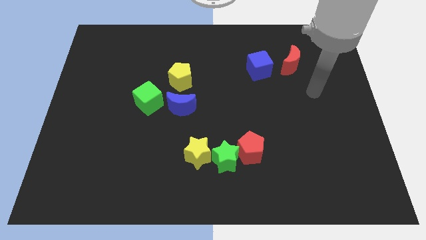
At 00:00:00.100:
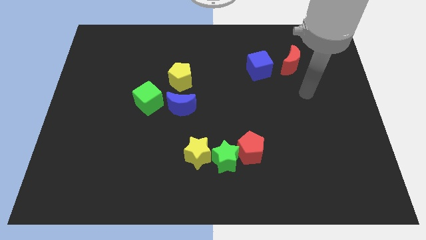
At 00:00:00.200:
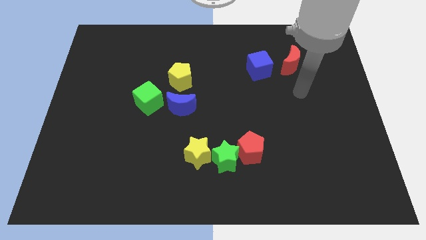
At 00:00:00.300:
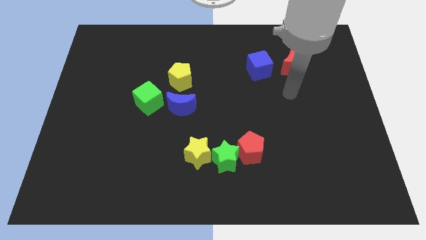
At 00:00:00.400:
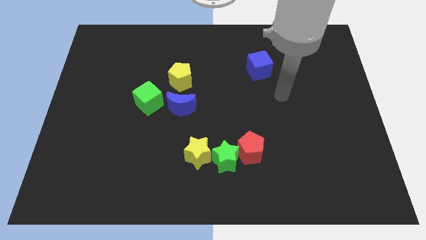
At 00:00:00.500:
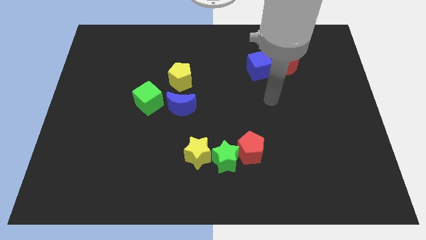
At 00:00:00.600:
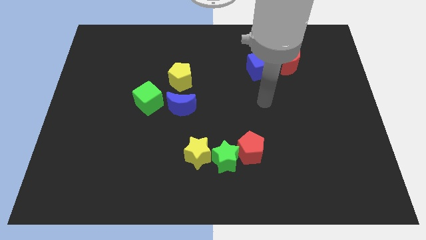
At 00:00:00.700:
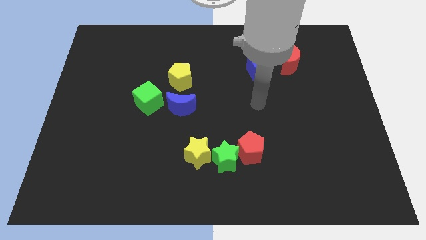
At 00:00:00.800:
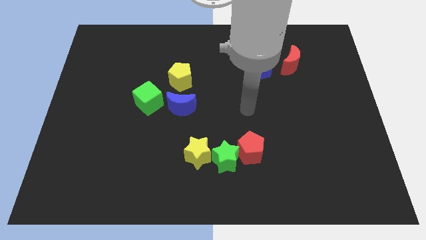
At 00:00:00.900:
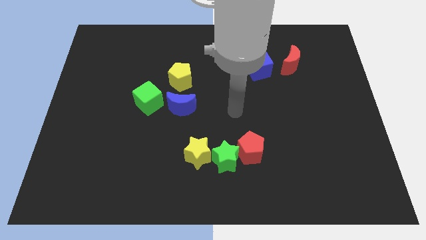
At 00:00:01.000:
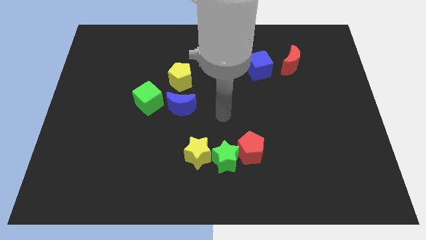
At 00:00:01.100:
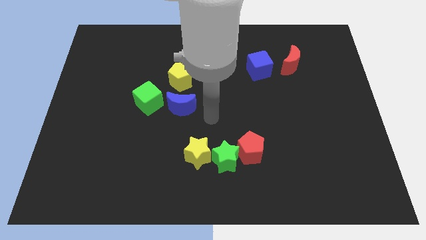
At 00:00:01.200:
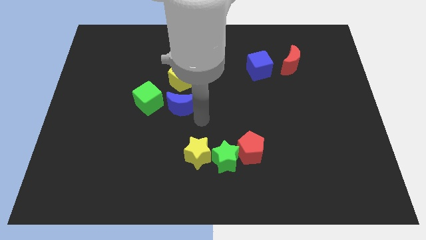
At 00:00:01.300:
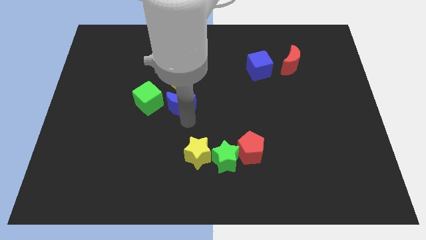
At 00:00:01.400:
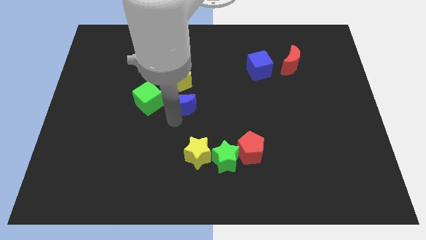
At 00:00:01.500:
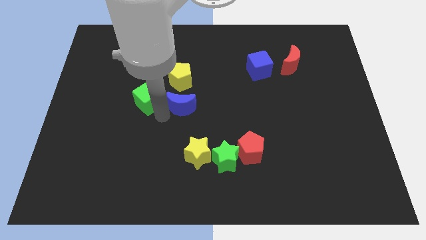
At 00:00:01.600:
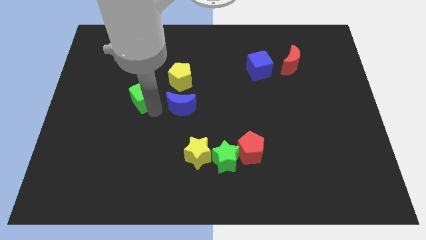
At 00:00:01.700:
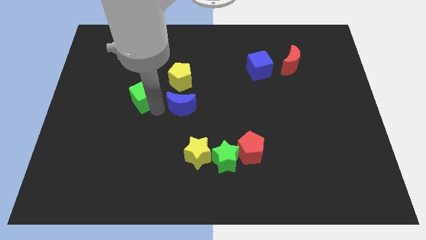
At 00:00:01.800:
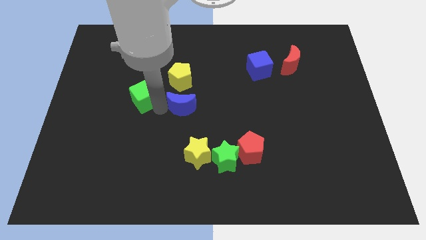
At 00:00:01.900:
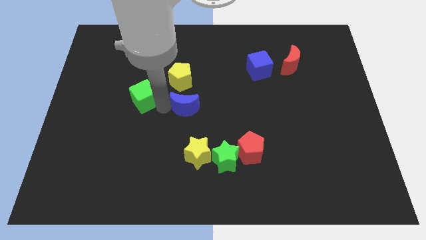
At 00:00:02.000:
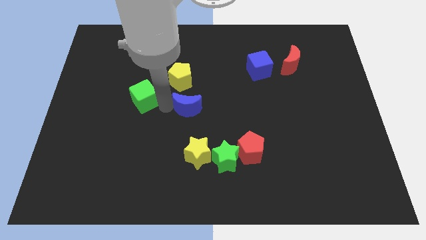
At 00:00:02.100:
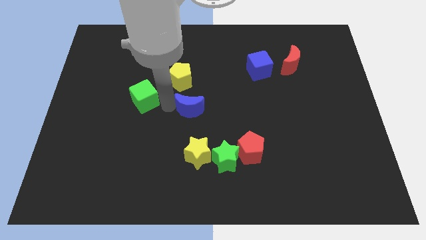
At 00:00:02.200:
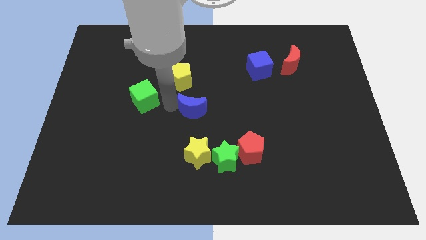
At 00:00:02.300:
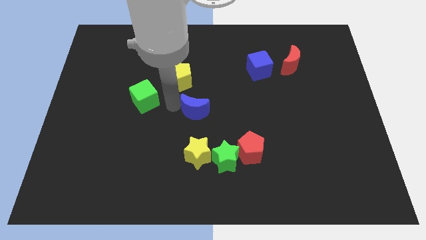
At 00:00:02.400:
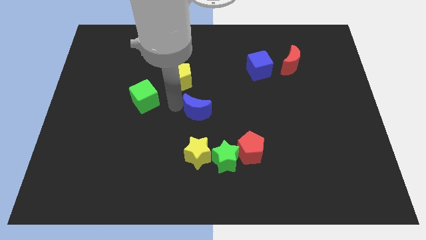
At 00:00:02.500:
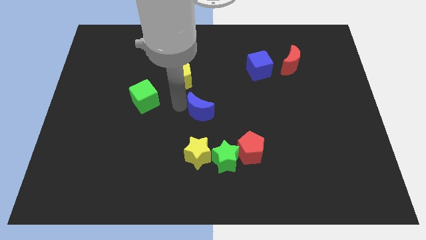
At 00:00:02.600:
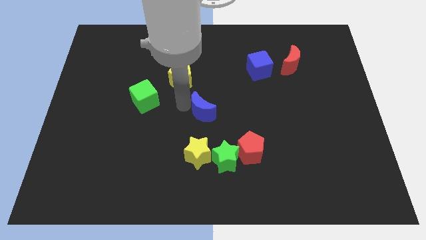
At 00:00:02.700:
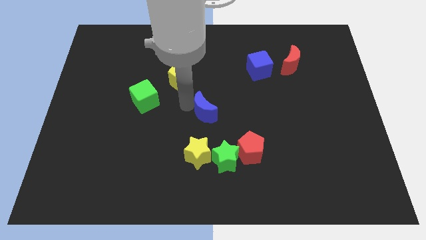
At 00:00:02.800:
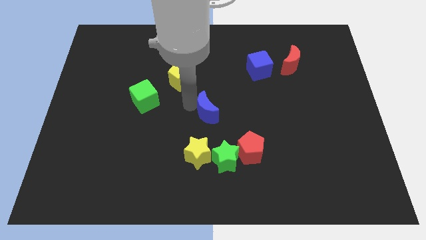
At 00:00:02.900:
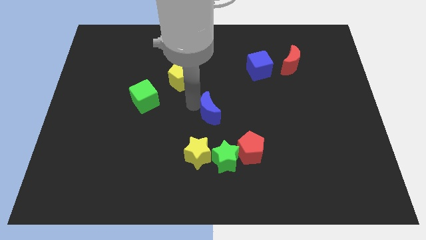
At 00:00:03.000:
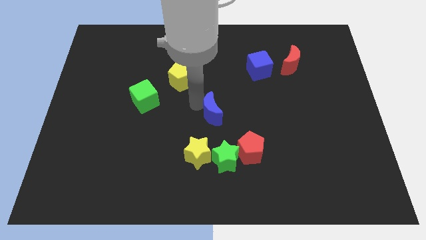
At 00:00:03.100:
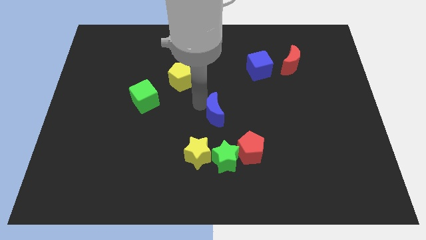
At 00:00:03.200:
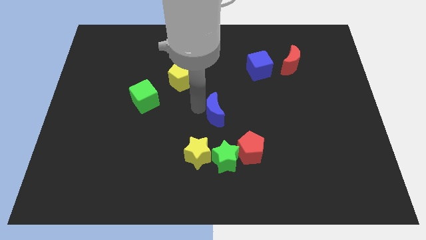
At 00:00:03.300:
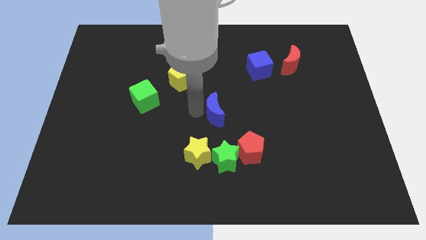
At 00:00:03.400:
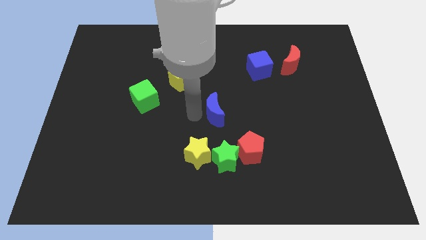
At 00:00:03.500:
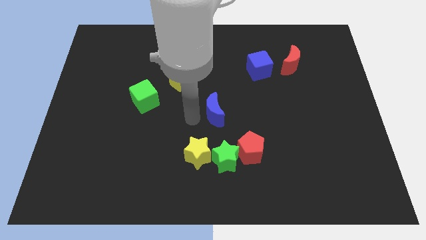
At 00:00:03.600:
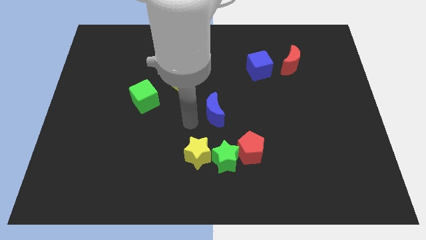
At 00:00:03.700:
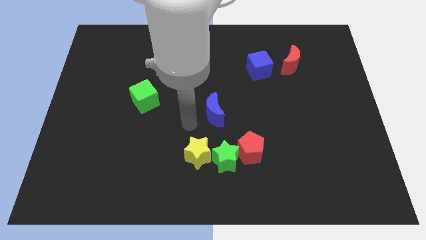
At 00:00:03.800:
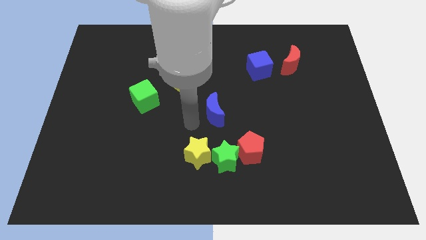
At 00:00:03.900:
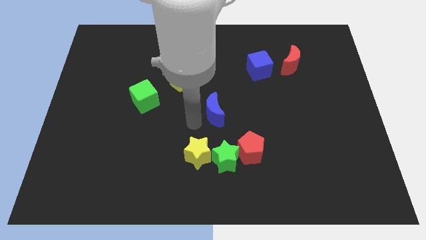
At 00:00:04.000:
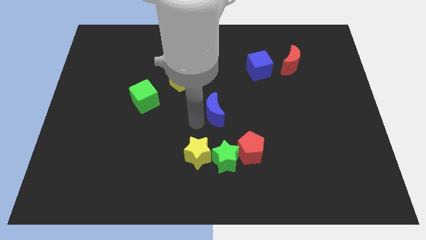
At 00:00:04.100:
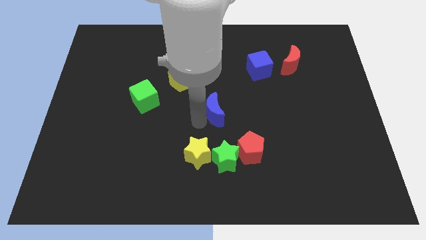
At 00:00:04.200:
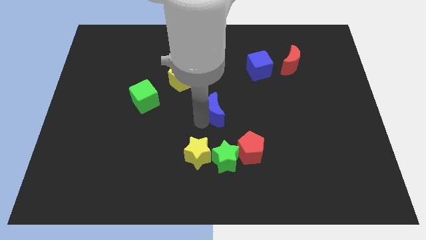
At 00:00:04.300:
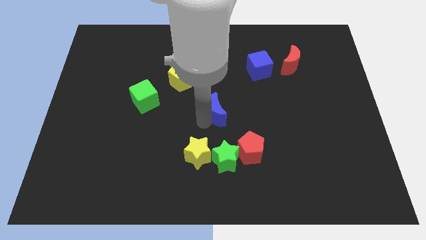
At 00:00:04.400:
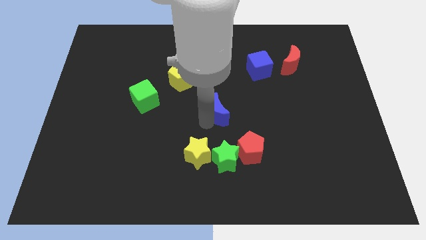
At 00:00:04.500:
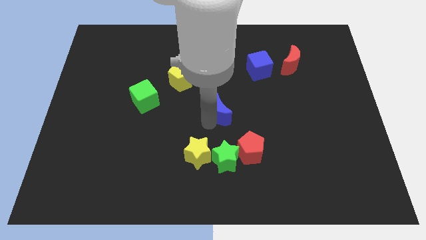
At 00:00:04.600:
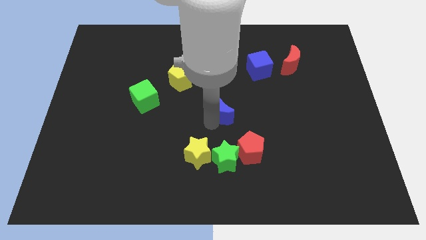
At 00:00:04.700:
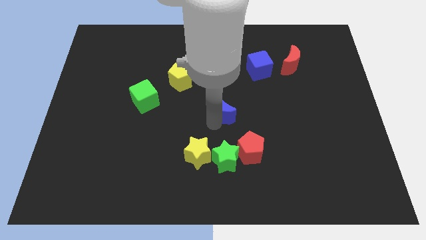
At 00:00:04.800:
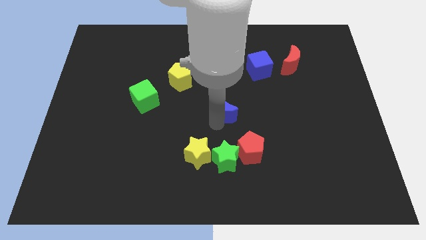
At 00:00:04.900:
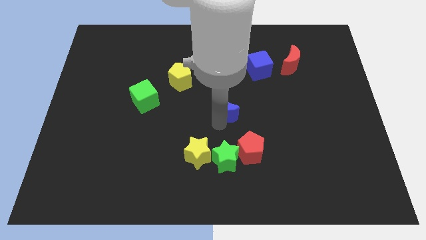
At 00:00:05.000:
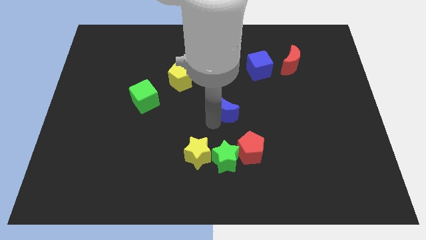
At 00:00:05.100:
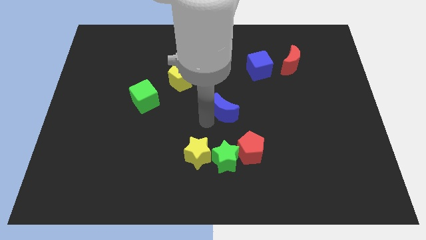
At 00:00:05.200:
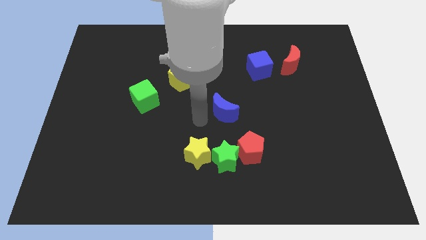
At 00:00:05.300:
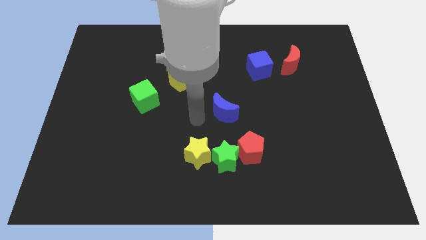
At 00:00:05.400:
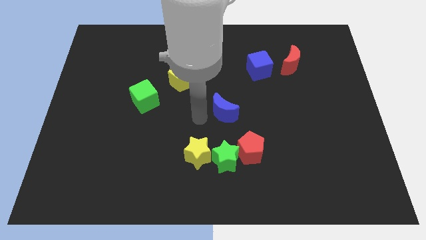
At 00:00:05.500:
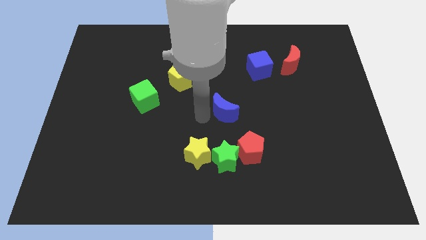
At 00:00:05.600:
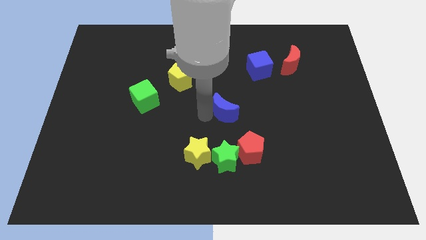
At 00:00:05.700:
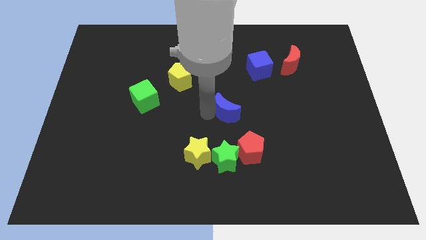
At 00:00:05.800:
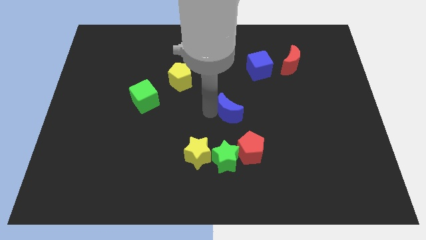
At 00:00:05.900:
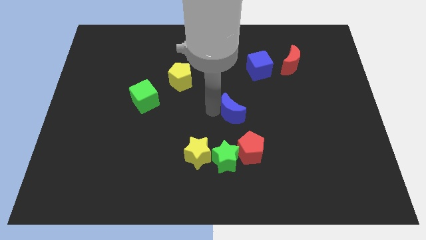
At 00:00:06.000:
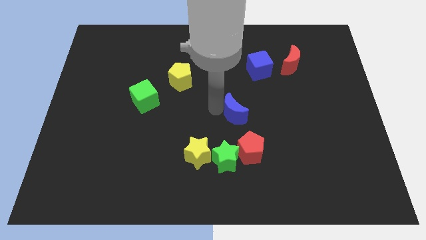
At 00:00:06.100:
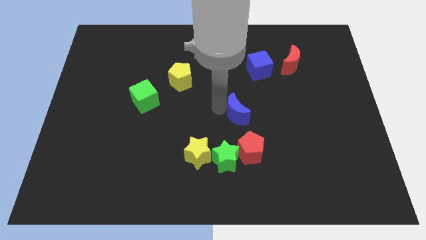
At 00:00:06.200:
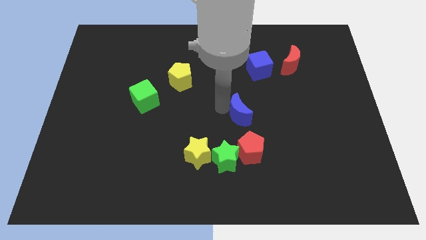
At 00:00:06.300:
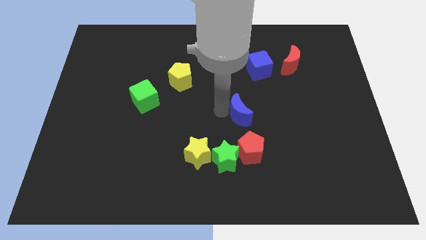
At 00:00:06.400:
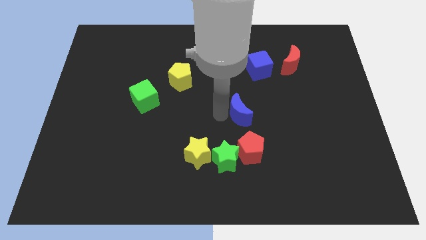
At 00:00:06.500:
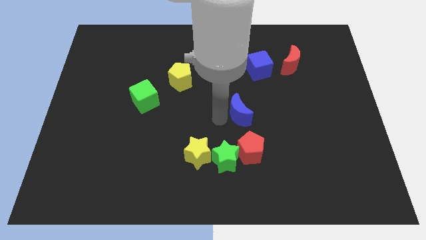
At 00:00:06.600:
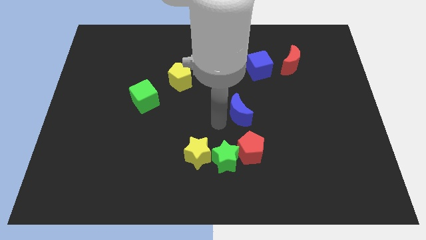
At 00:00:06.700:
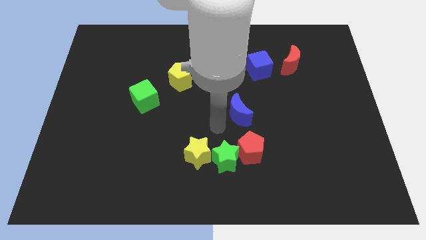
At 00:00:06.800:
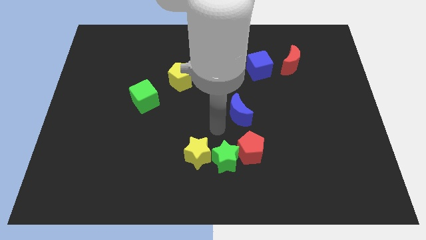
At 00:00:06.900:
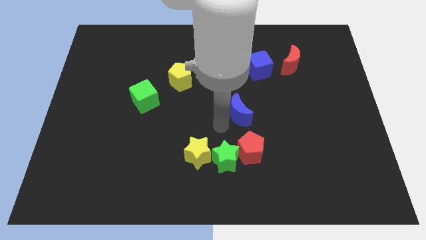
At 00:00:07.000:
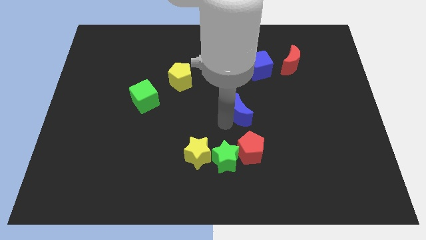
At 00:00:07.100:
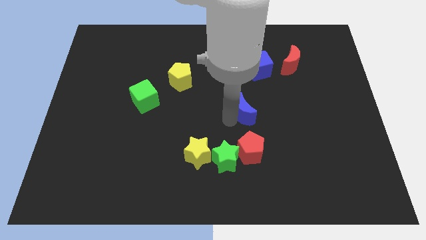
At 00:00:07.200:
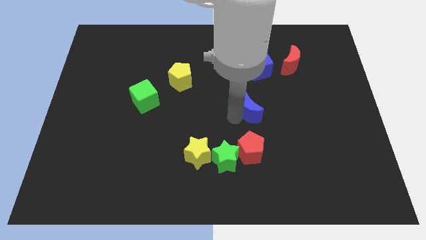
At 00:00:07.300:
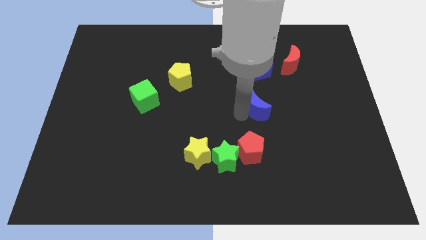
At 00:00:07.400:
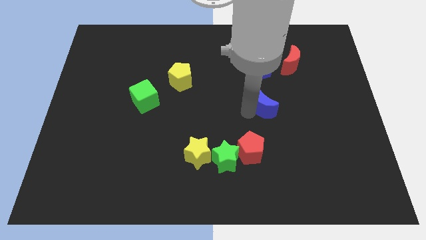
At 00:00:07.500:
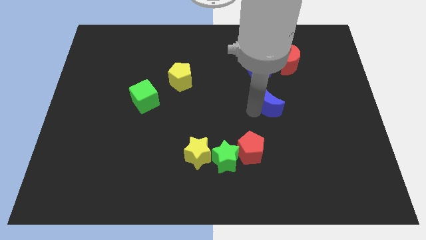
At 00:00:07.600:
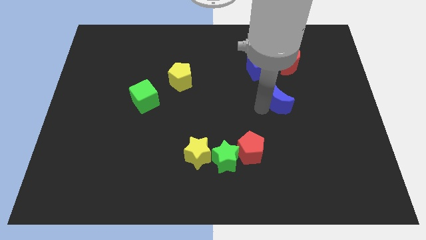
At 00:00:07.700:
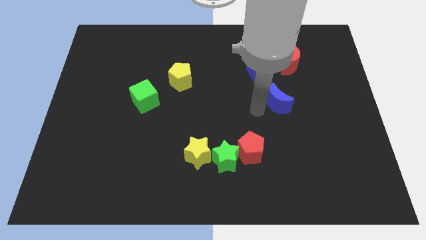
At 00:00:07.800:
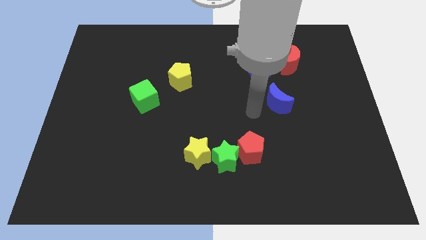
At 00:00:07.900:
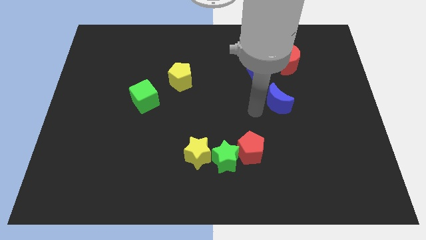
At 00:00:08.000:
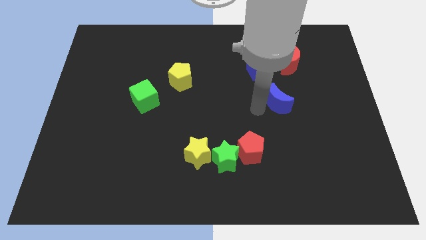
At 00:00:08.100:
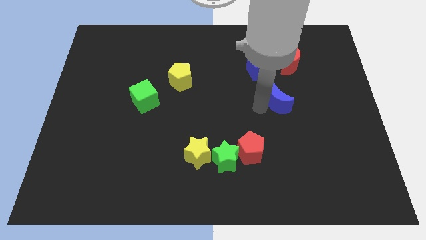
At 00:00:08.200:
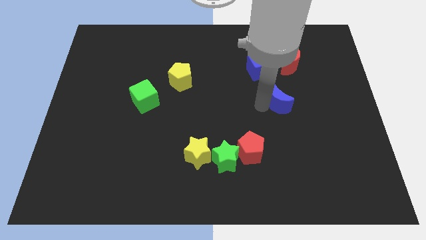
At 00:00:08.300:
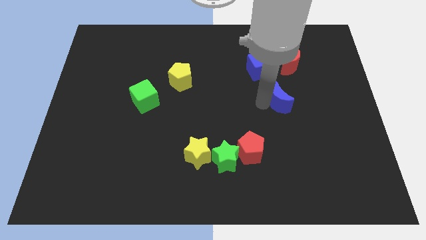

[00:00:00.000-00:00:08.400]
push the blue moon to the bottom of the red moon
